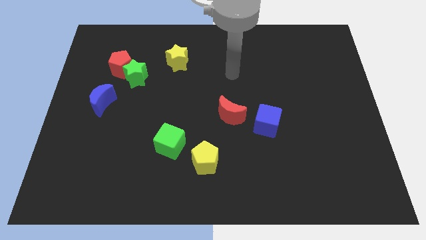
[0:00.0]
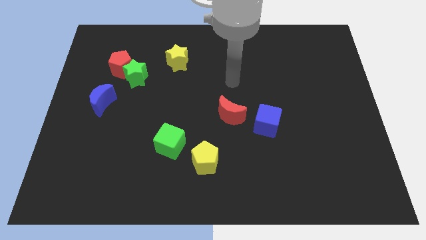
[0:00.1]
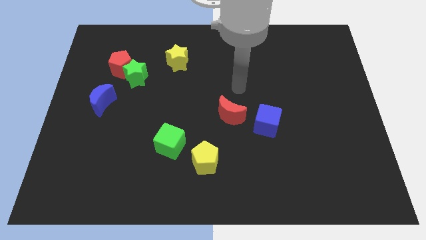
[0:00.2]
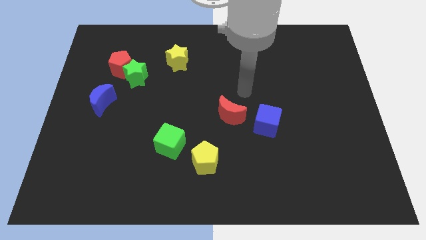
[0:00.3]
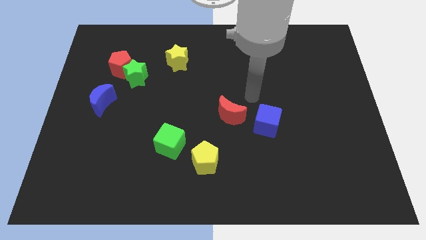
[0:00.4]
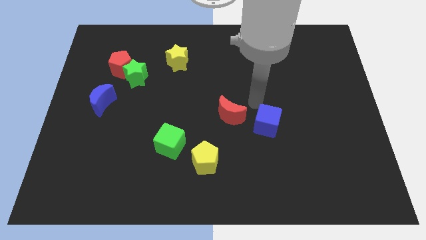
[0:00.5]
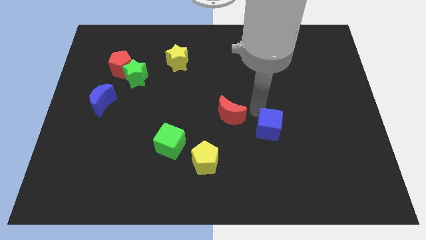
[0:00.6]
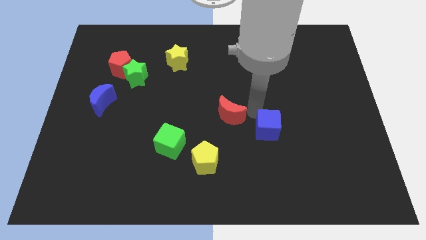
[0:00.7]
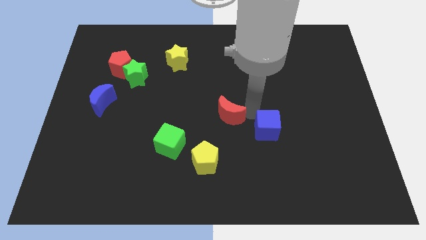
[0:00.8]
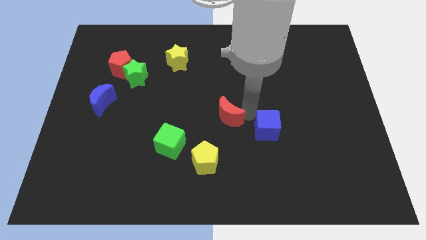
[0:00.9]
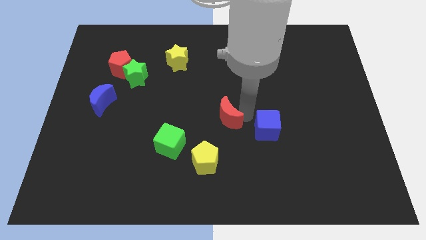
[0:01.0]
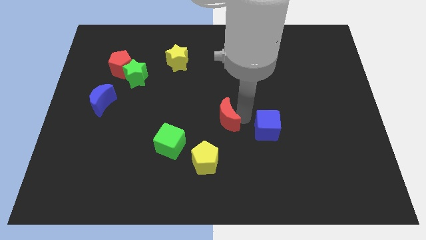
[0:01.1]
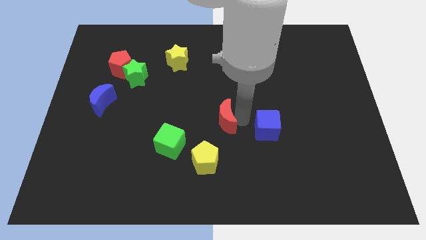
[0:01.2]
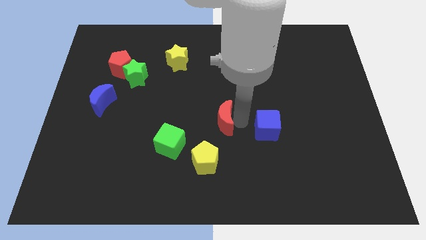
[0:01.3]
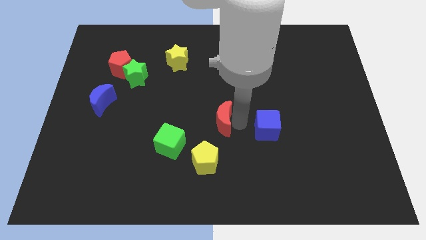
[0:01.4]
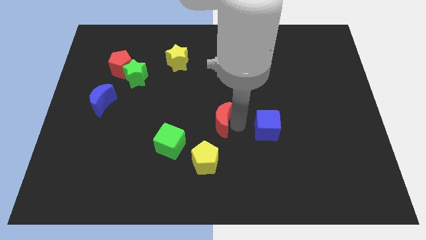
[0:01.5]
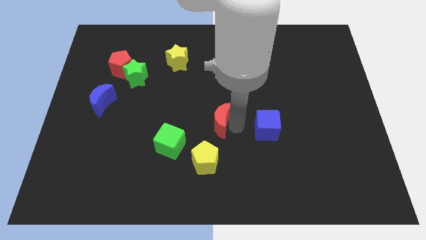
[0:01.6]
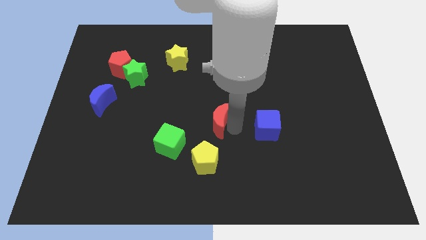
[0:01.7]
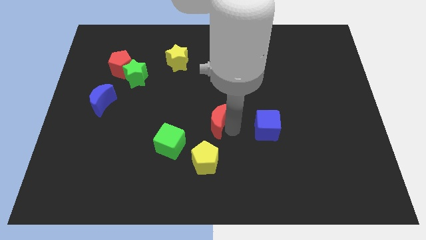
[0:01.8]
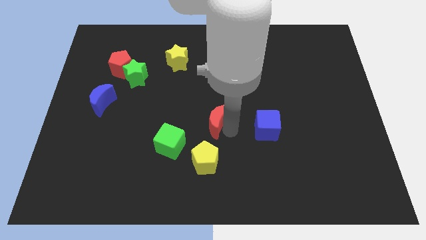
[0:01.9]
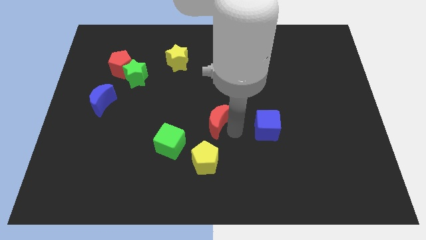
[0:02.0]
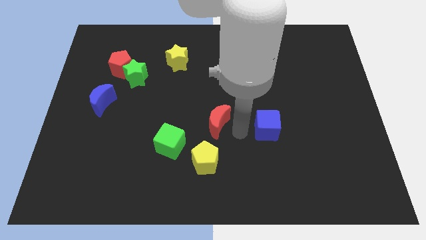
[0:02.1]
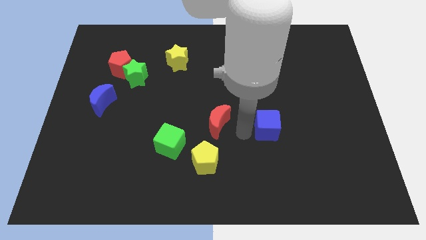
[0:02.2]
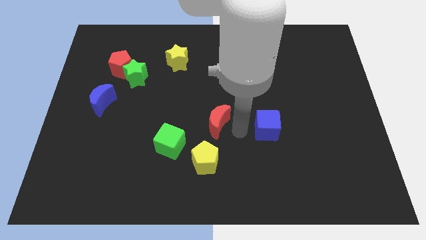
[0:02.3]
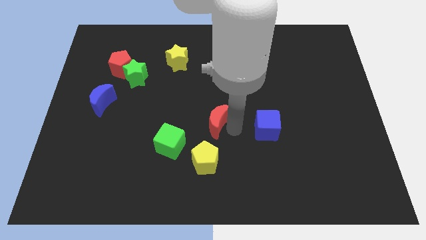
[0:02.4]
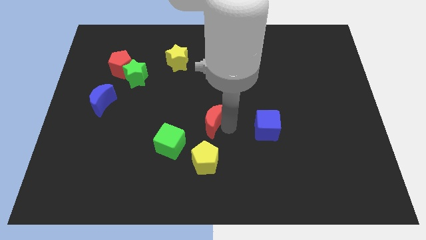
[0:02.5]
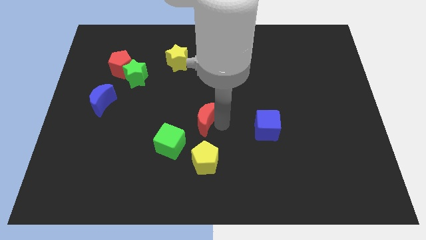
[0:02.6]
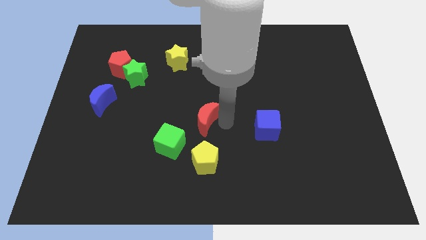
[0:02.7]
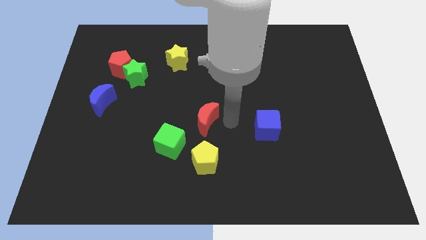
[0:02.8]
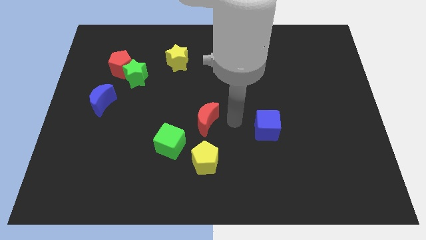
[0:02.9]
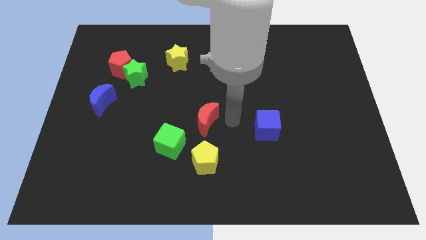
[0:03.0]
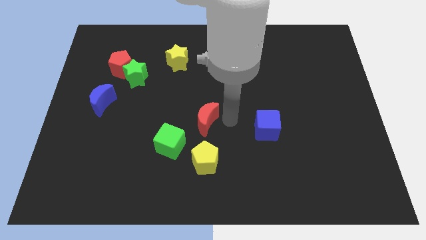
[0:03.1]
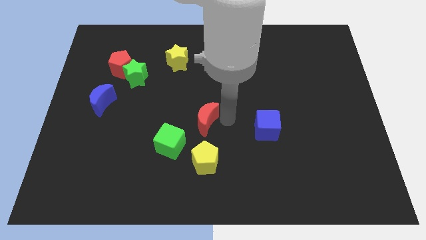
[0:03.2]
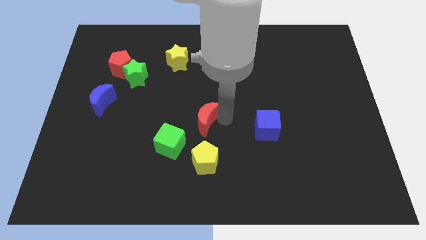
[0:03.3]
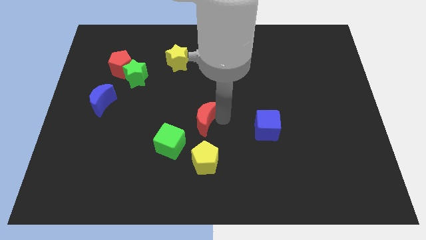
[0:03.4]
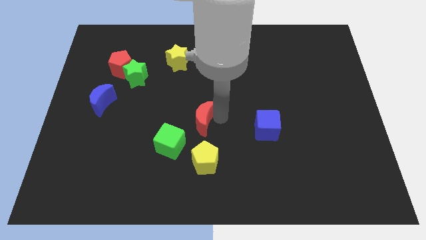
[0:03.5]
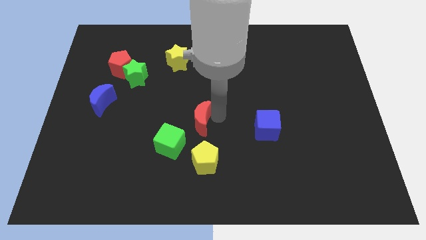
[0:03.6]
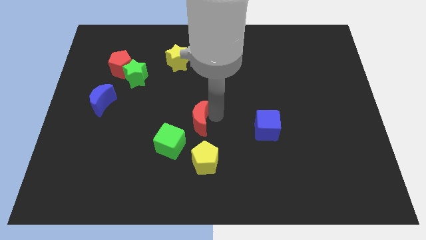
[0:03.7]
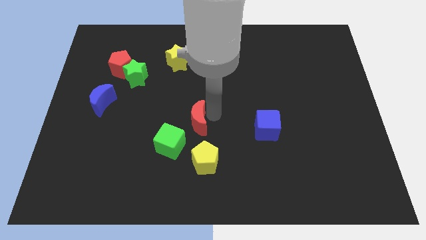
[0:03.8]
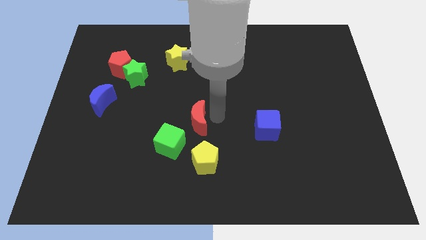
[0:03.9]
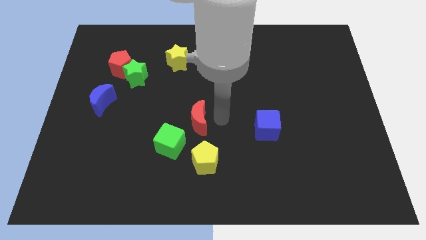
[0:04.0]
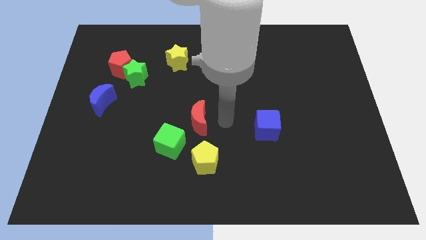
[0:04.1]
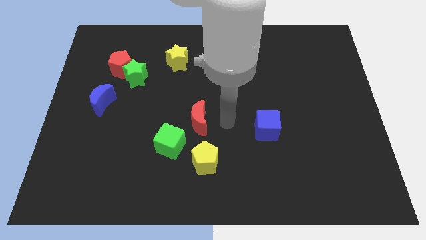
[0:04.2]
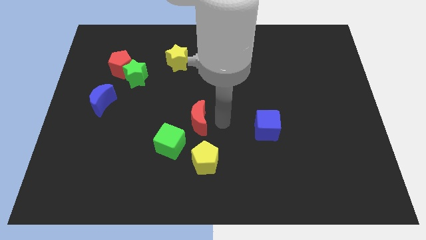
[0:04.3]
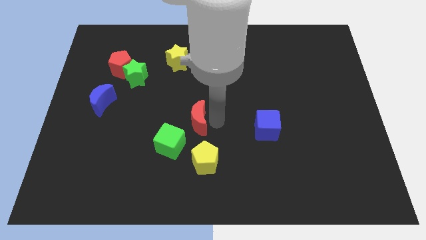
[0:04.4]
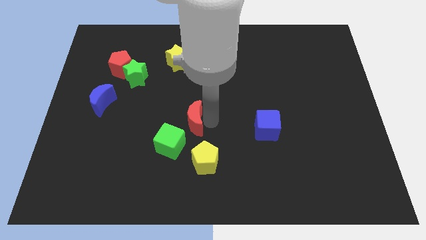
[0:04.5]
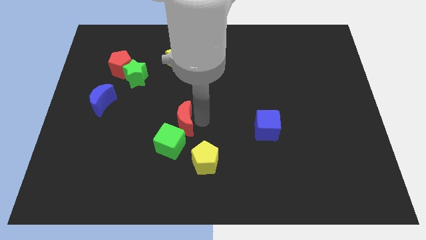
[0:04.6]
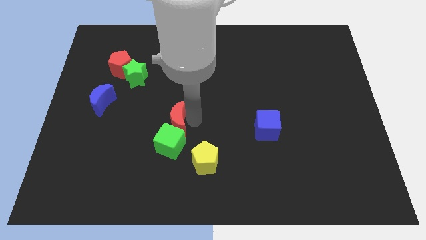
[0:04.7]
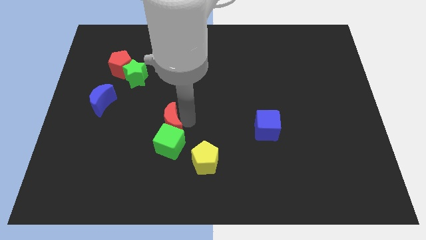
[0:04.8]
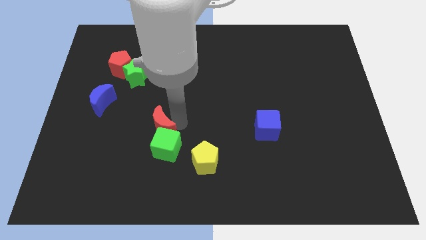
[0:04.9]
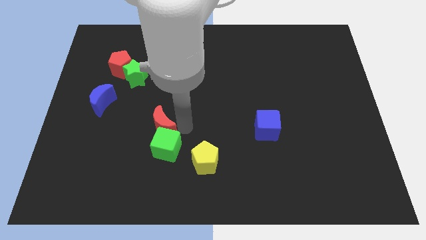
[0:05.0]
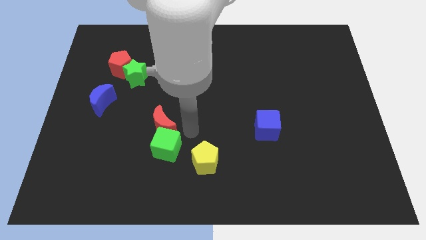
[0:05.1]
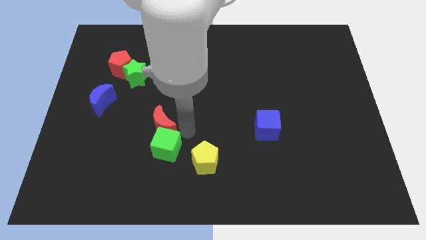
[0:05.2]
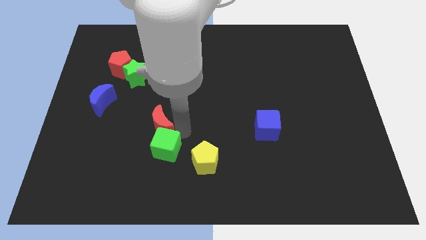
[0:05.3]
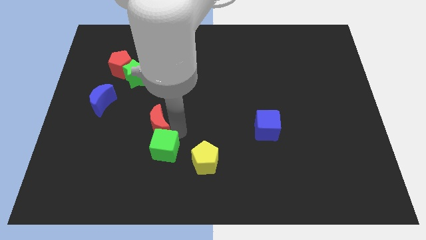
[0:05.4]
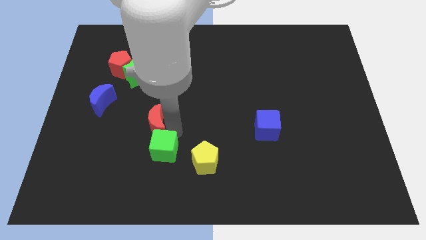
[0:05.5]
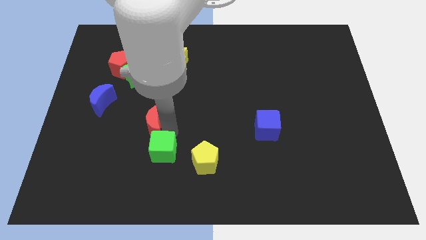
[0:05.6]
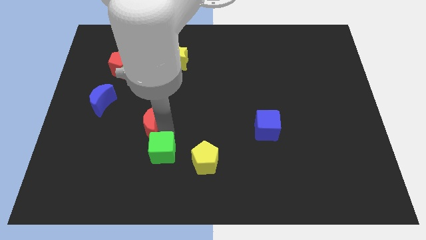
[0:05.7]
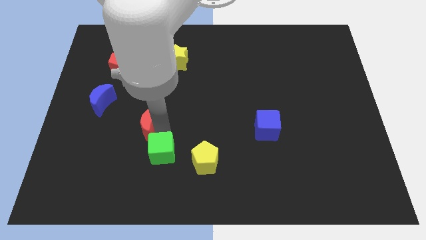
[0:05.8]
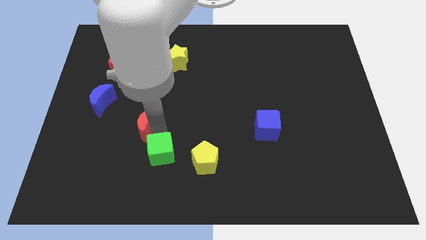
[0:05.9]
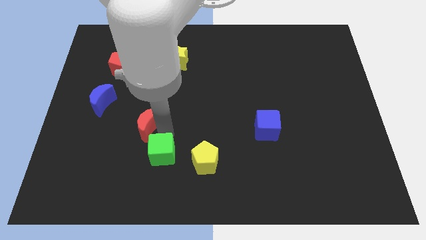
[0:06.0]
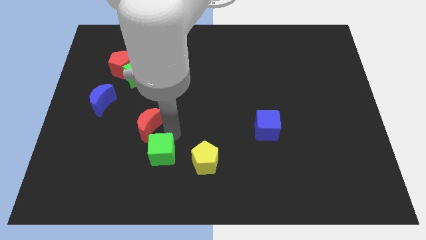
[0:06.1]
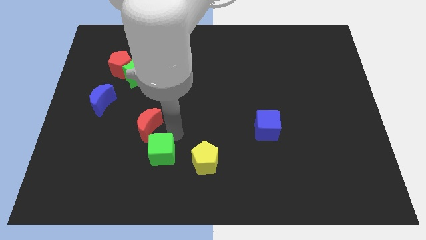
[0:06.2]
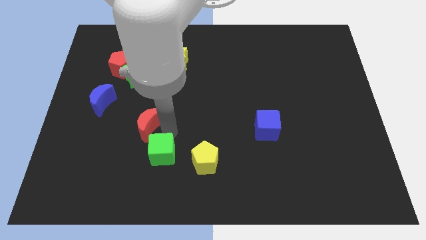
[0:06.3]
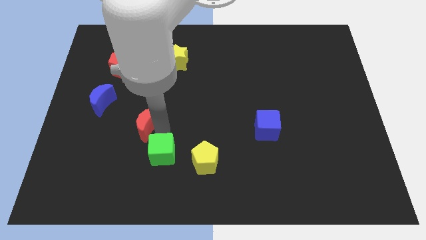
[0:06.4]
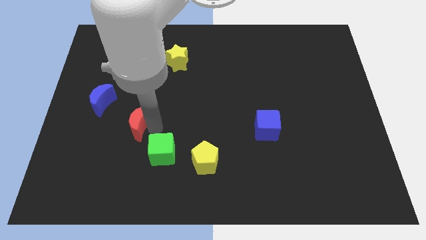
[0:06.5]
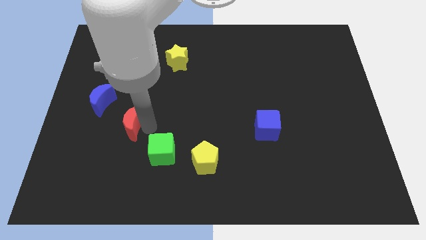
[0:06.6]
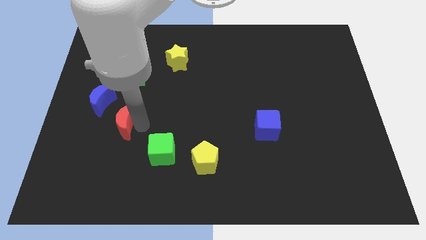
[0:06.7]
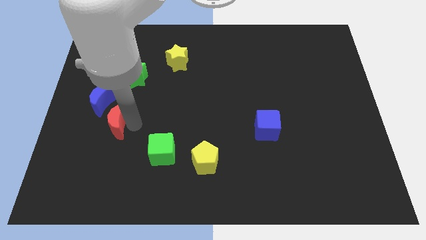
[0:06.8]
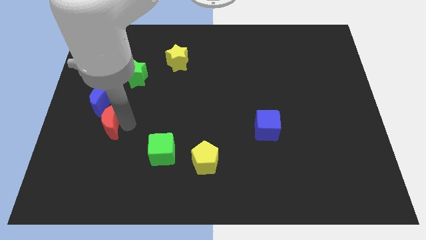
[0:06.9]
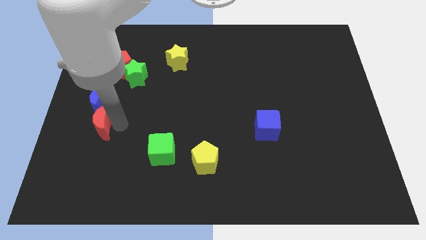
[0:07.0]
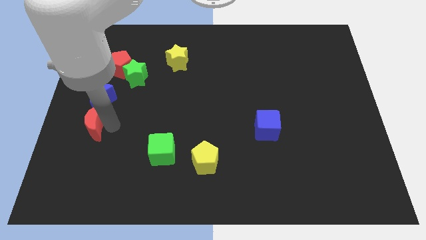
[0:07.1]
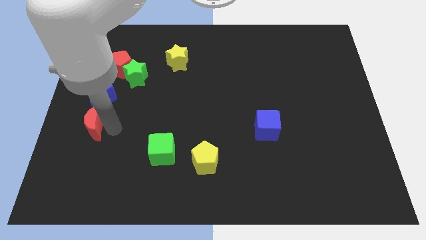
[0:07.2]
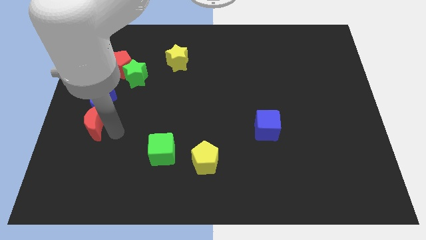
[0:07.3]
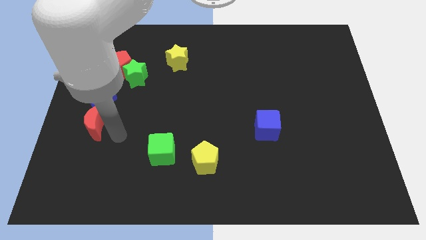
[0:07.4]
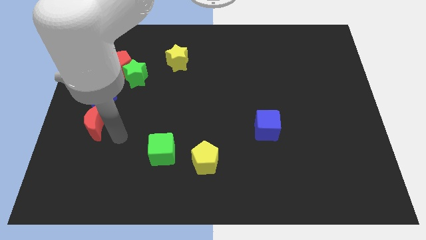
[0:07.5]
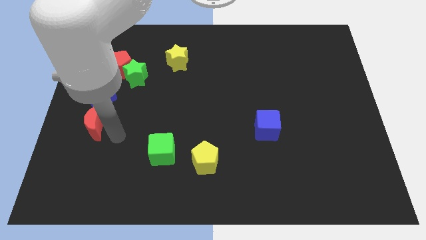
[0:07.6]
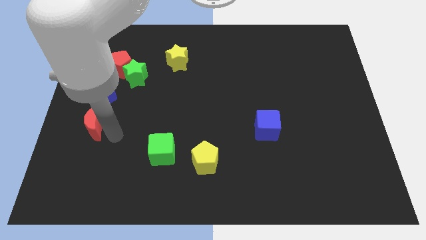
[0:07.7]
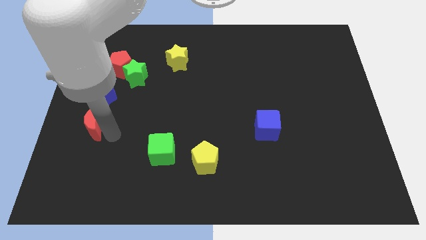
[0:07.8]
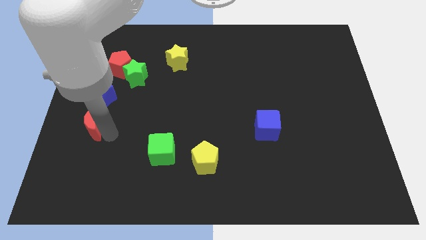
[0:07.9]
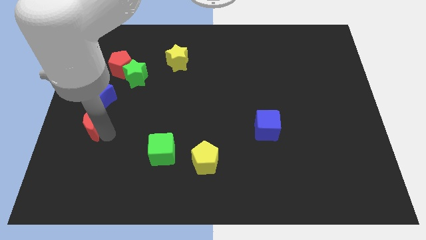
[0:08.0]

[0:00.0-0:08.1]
slide the red moon to the left side
